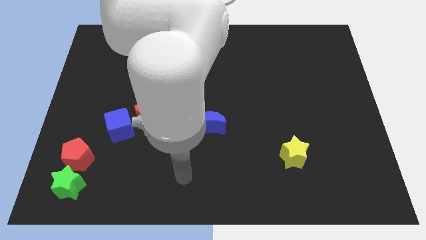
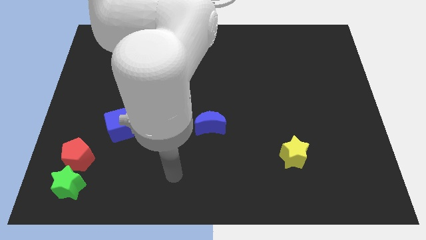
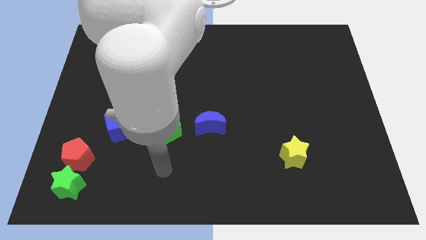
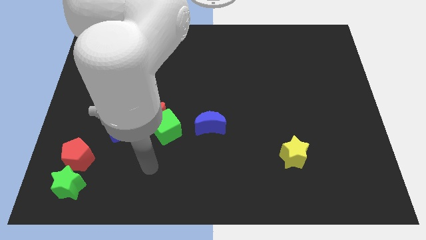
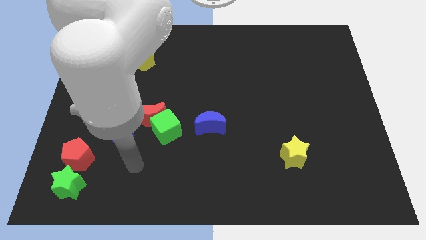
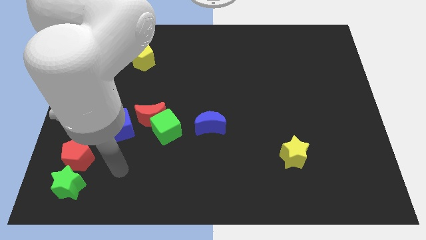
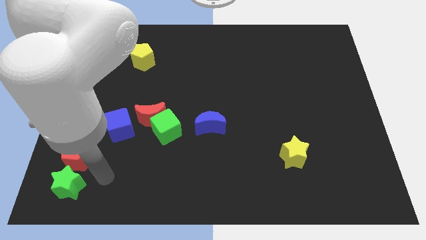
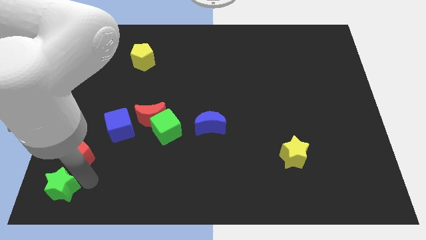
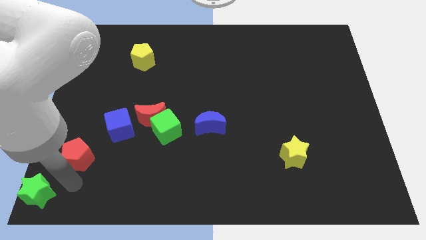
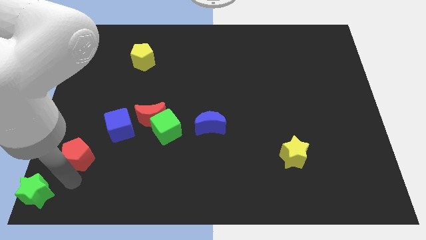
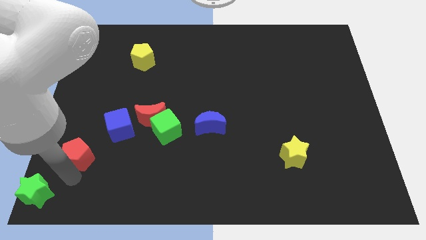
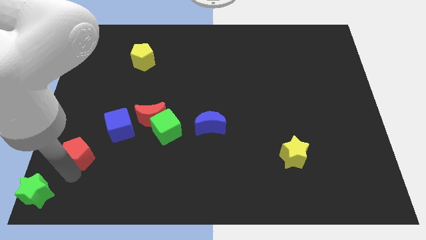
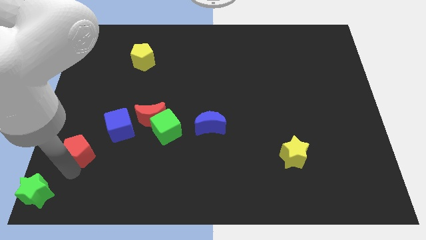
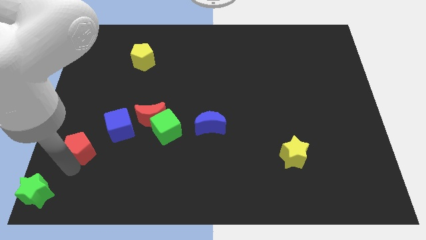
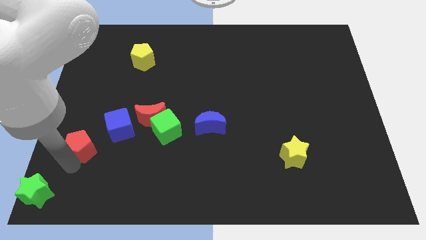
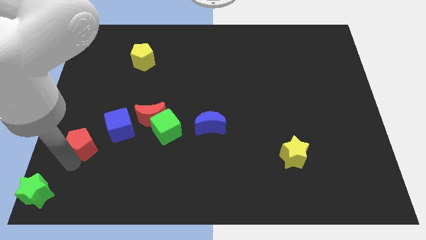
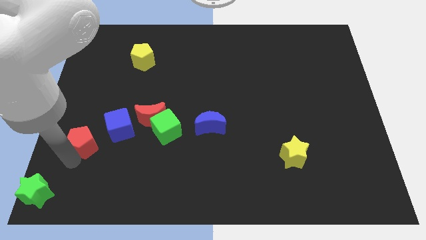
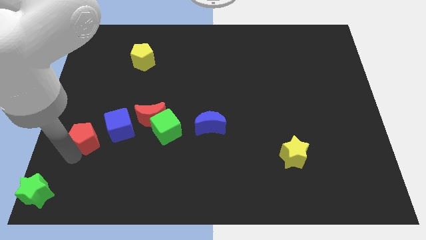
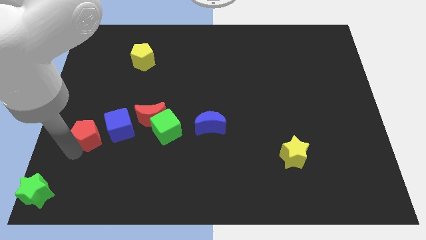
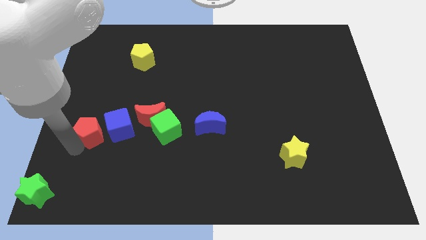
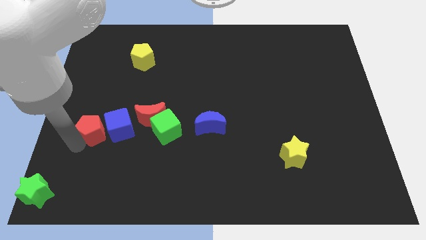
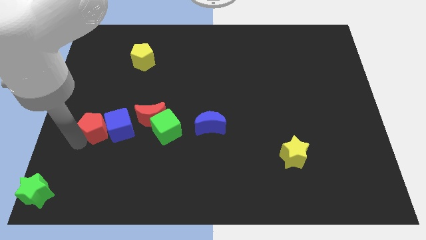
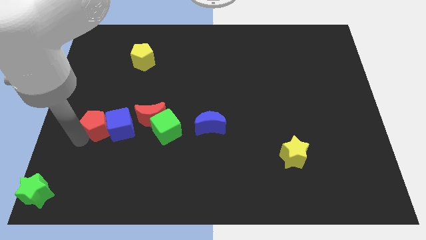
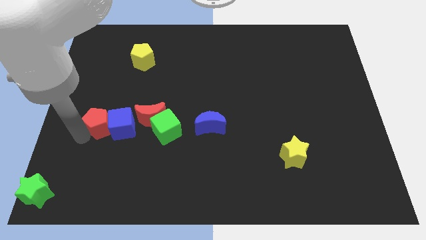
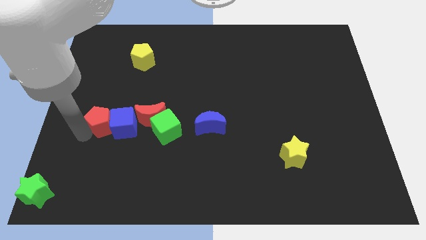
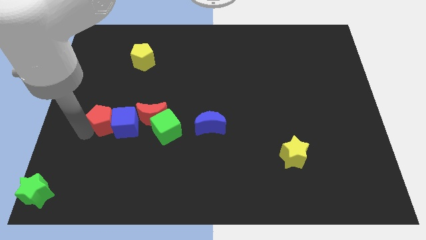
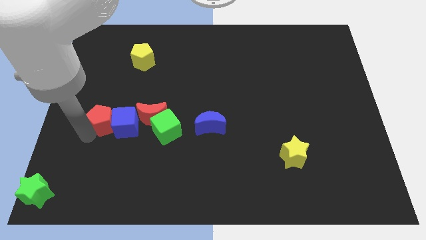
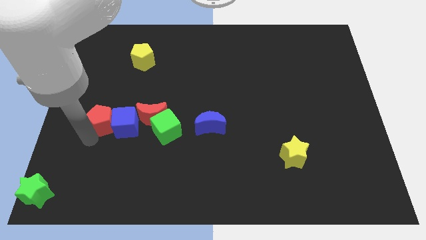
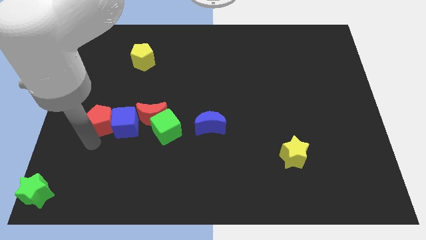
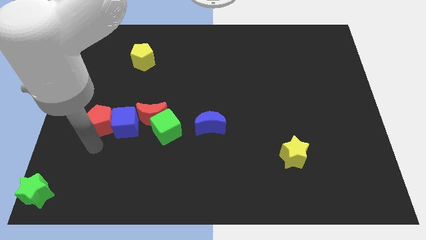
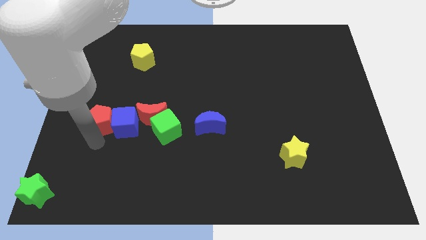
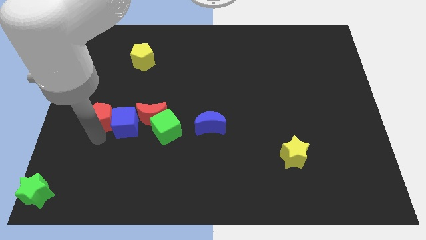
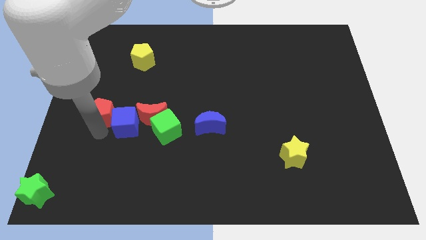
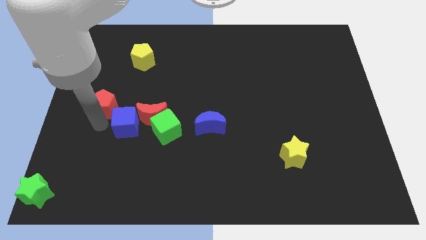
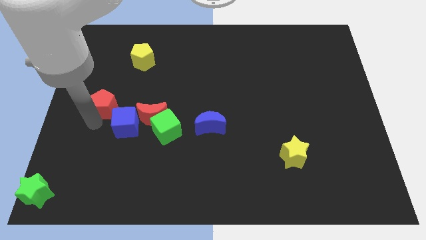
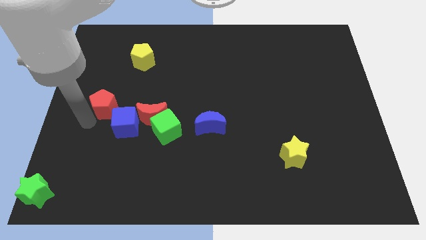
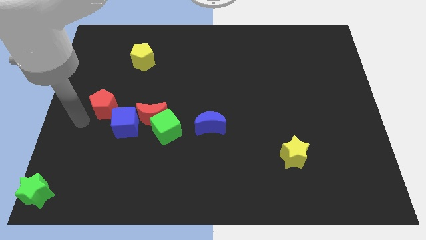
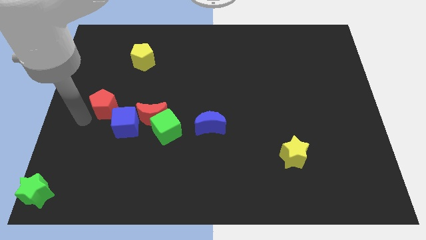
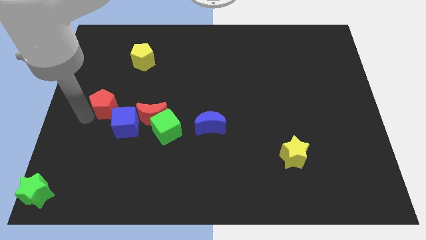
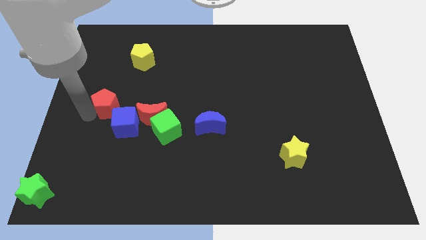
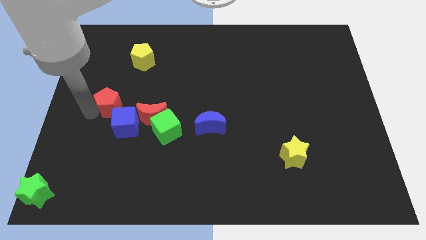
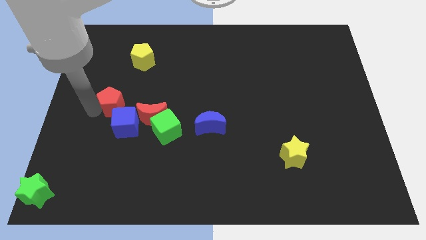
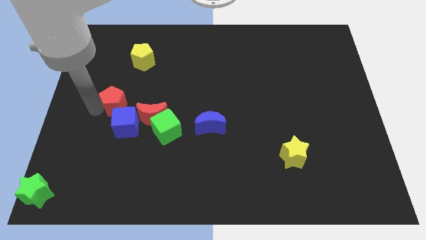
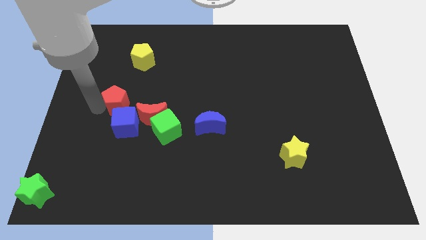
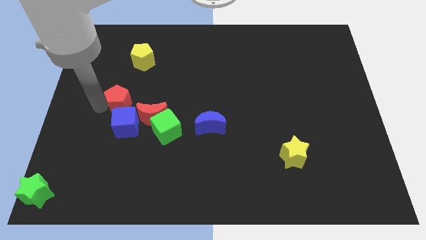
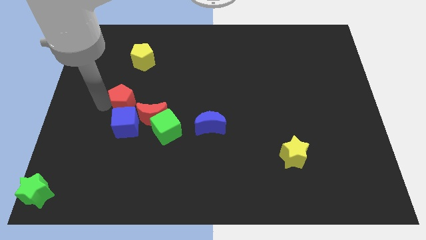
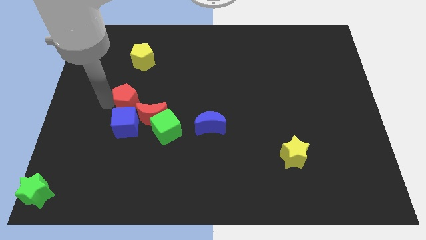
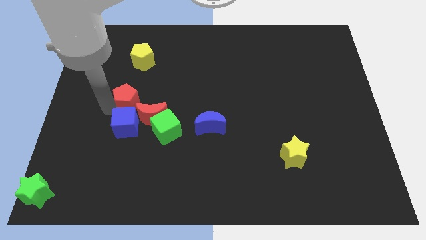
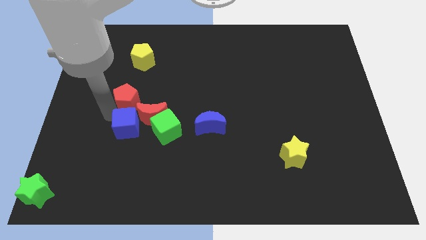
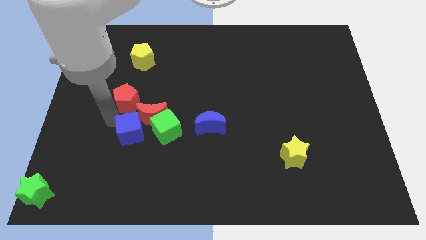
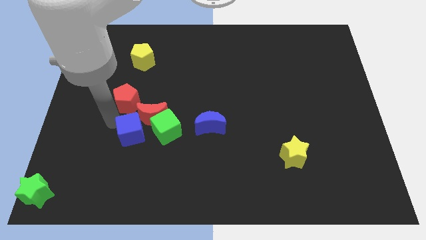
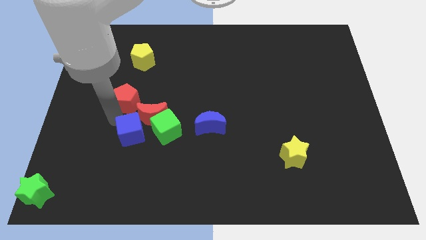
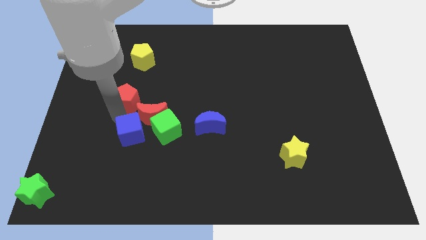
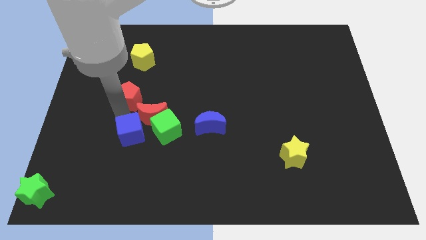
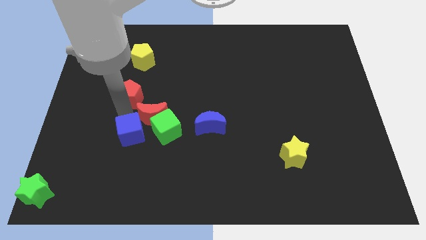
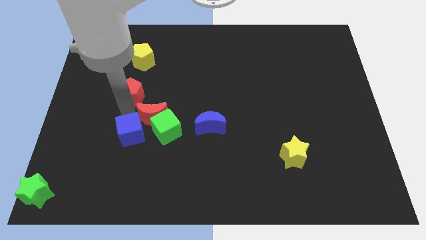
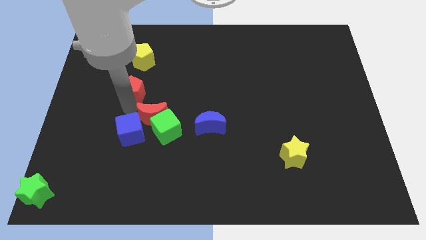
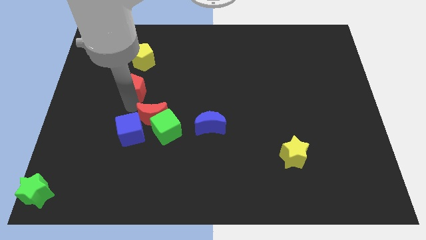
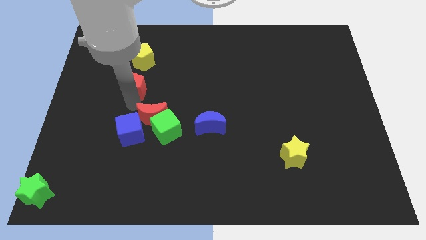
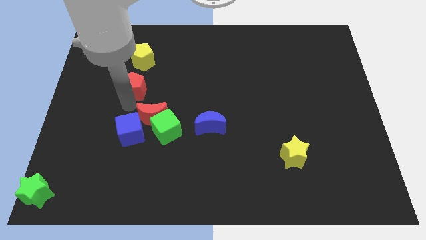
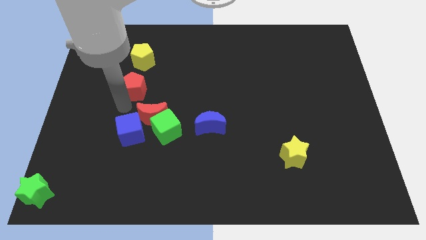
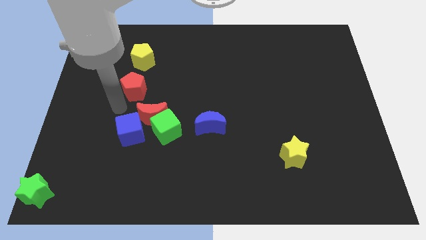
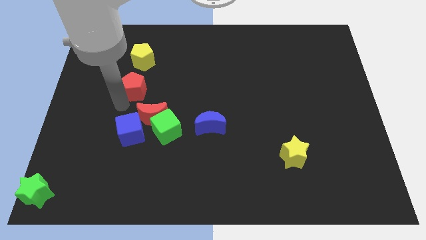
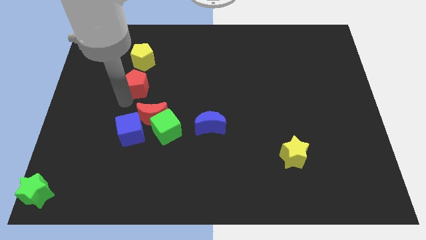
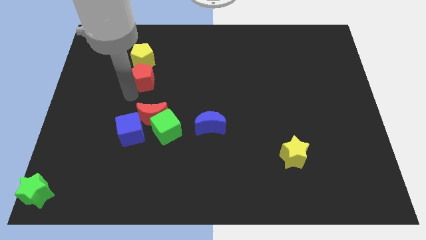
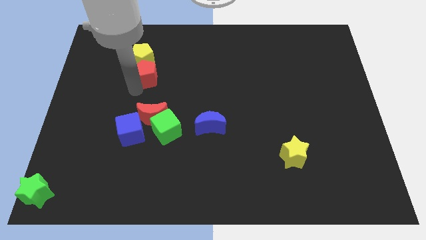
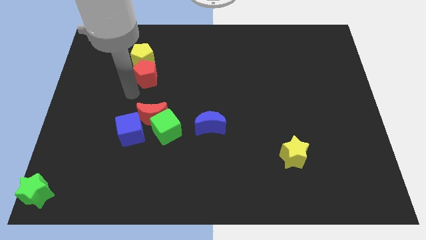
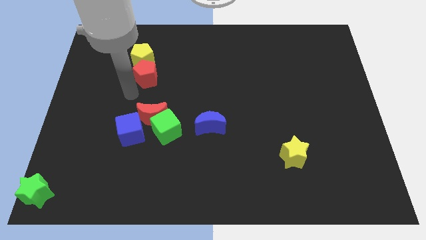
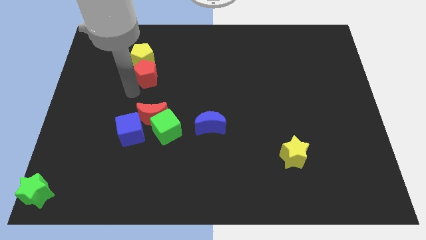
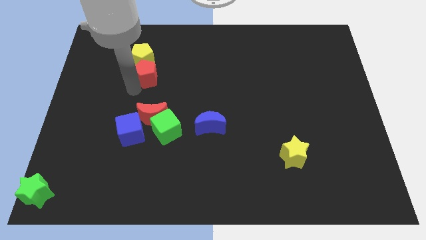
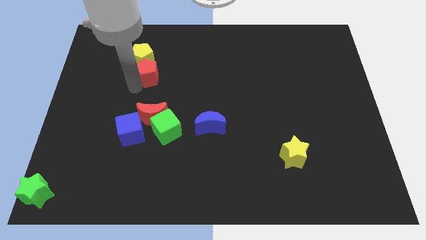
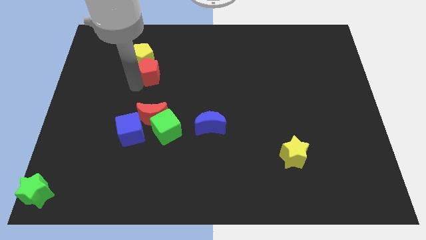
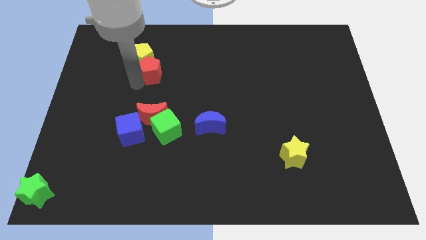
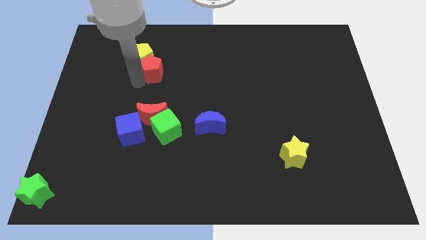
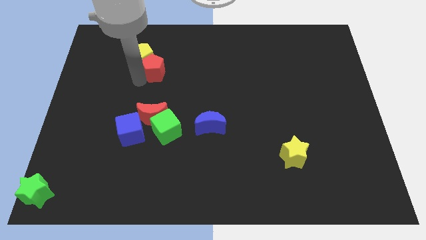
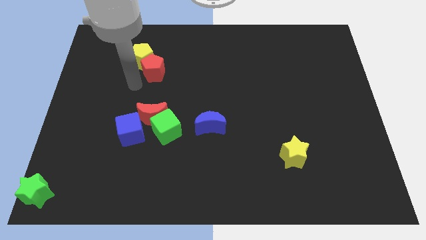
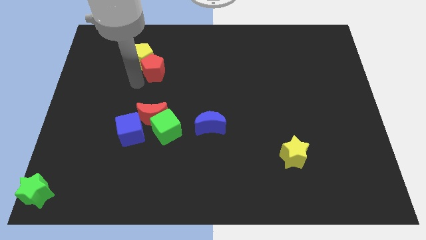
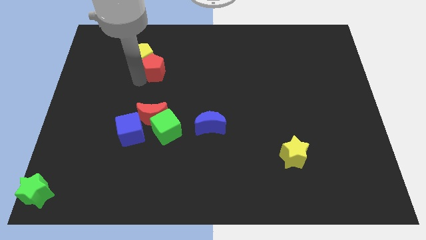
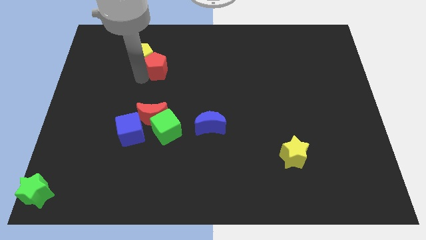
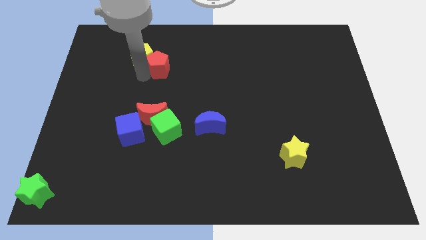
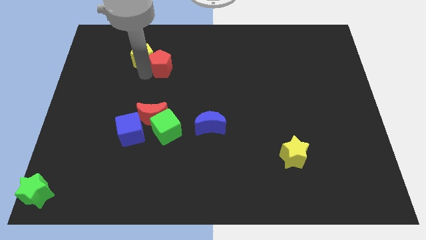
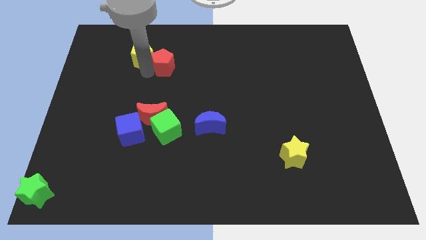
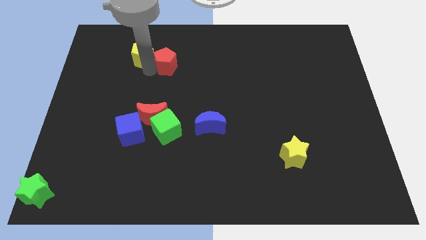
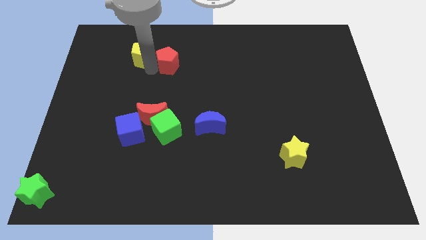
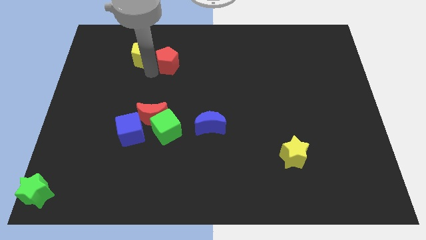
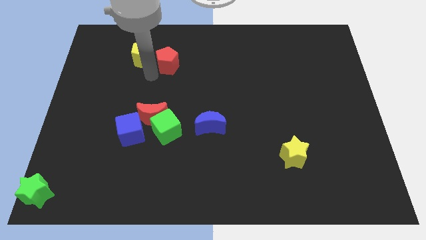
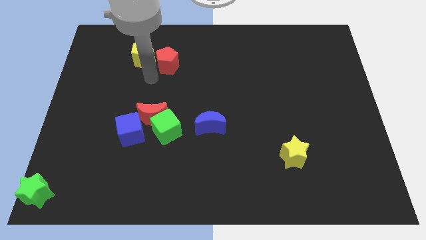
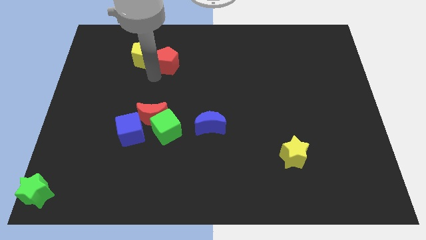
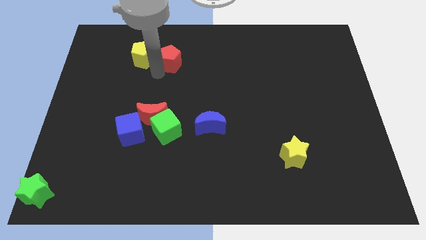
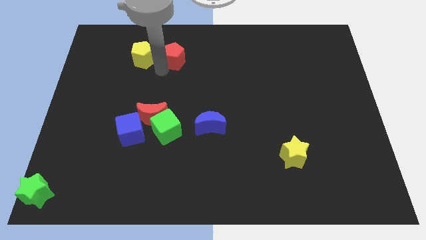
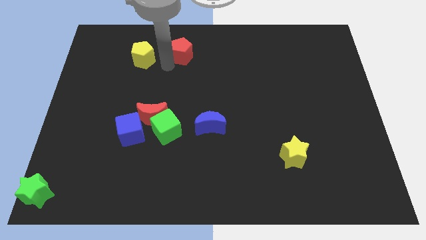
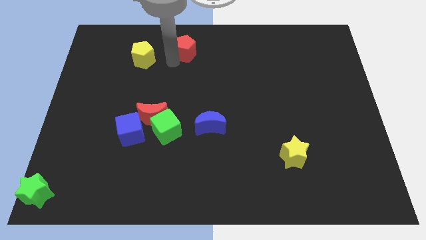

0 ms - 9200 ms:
push the red pentagon to the towards your base
